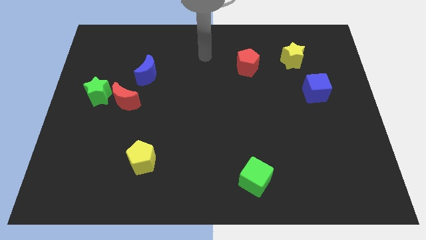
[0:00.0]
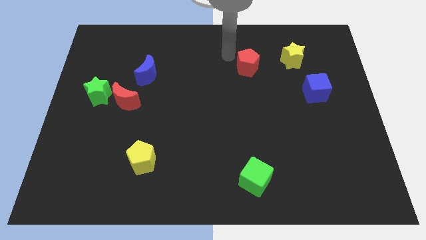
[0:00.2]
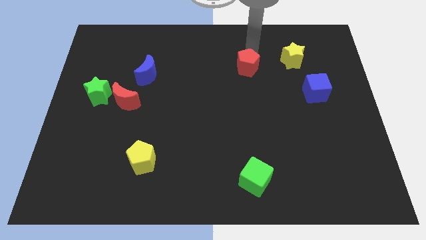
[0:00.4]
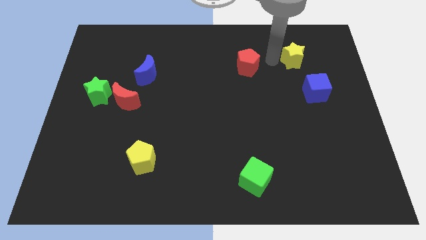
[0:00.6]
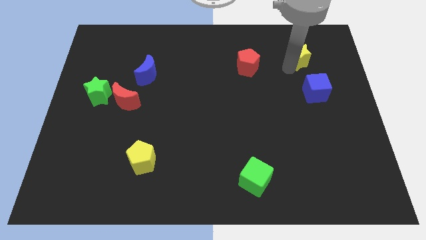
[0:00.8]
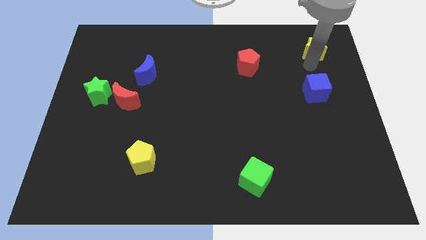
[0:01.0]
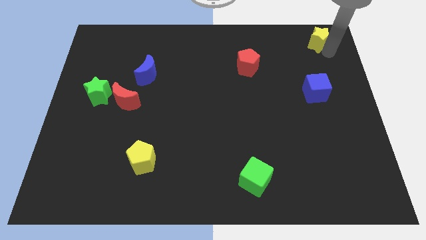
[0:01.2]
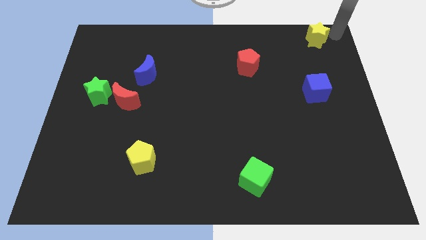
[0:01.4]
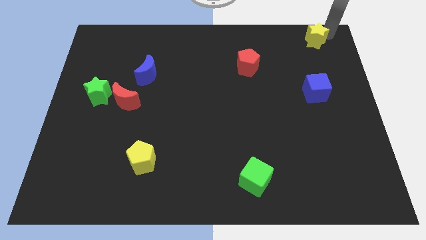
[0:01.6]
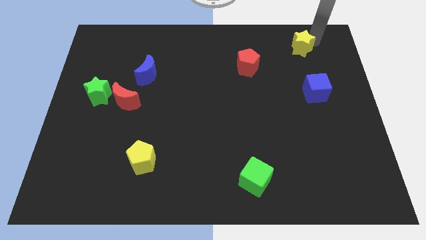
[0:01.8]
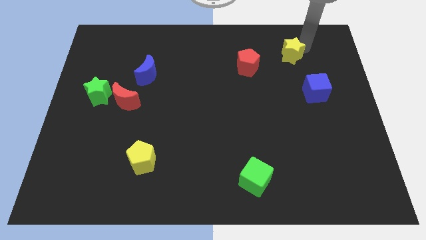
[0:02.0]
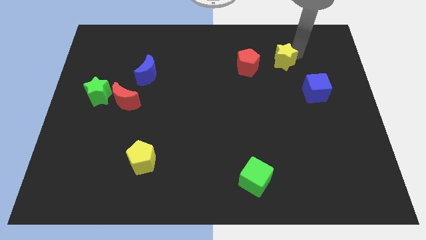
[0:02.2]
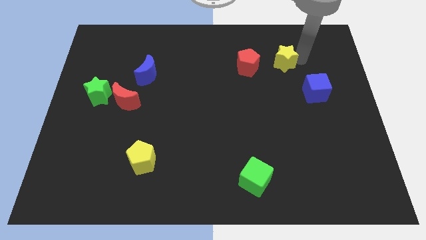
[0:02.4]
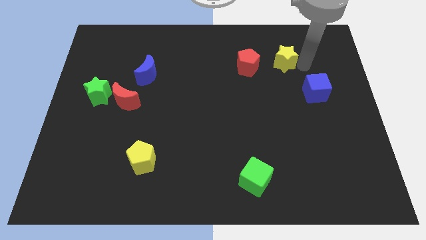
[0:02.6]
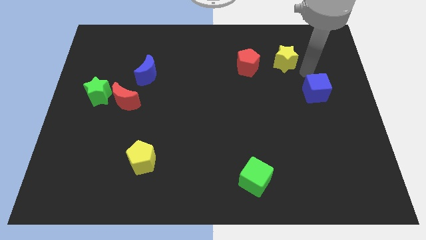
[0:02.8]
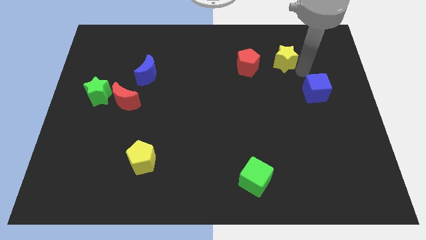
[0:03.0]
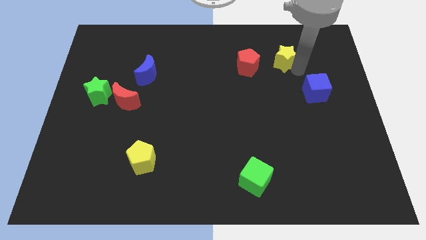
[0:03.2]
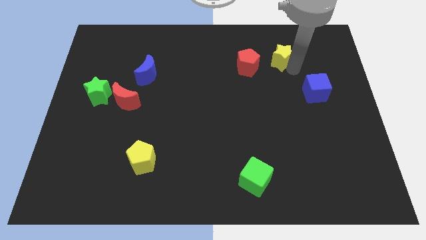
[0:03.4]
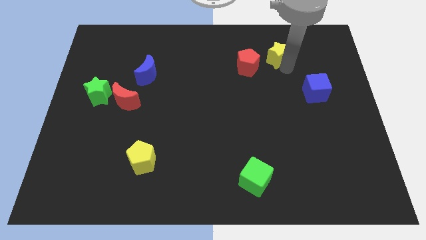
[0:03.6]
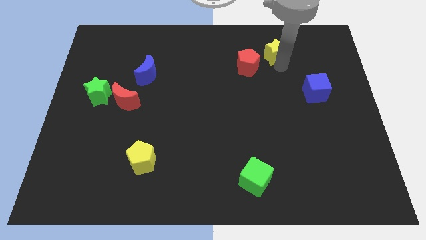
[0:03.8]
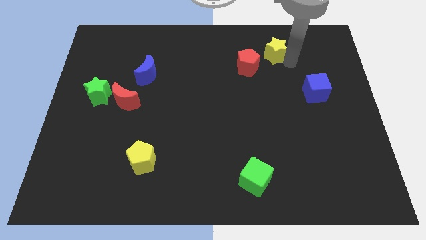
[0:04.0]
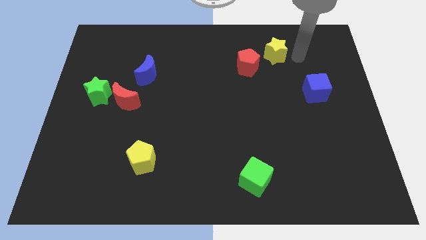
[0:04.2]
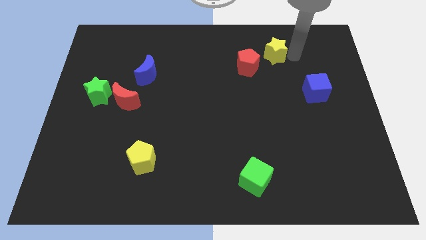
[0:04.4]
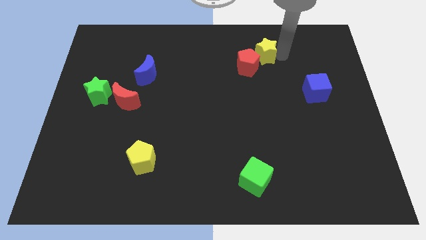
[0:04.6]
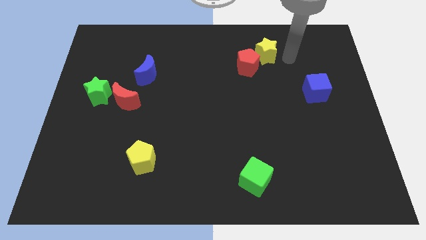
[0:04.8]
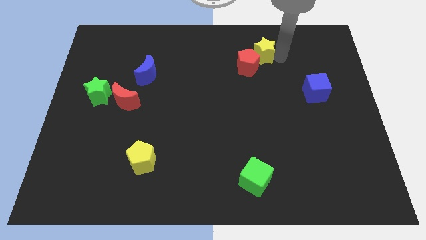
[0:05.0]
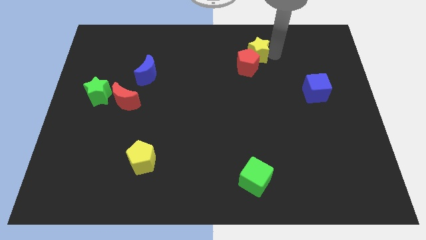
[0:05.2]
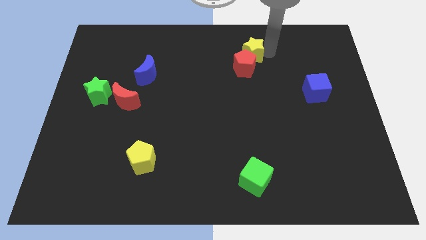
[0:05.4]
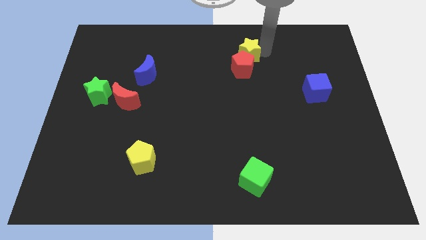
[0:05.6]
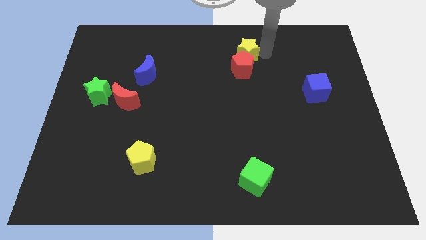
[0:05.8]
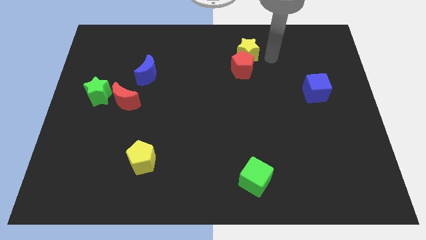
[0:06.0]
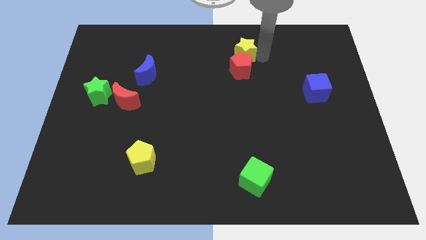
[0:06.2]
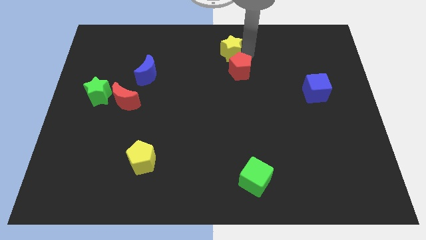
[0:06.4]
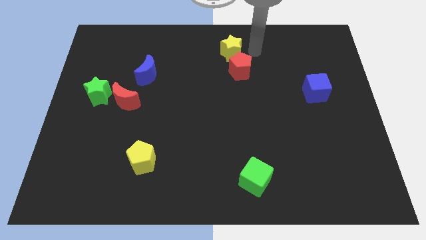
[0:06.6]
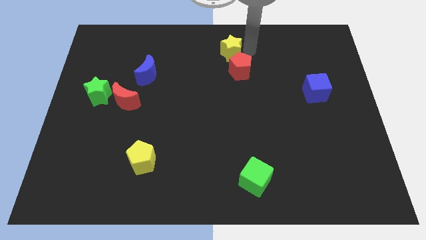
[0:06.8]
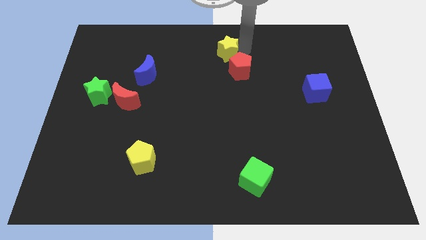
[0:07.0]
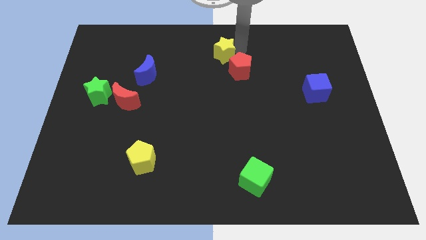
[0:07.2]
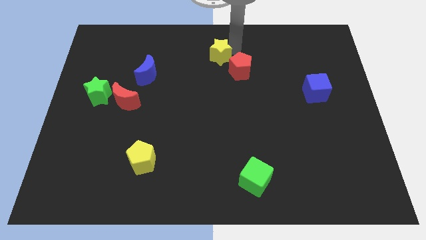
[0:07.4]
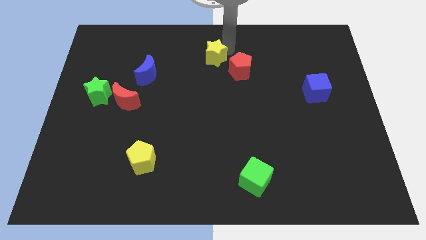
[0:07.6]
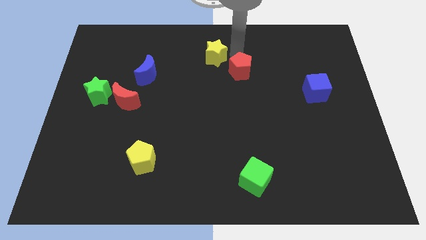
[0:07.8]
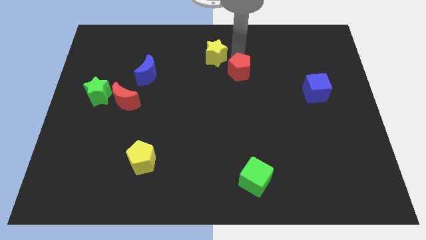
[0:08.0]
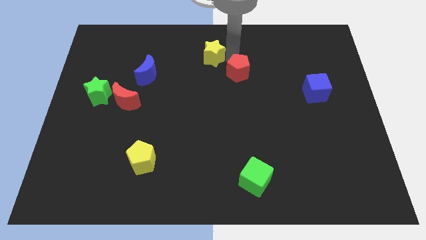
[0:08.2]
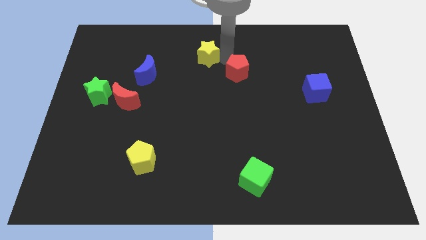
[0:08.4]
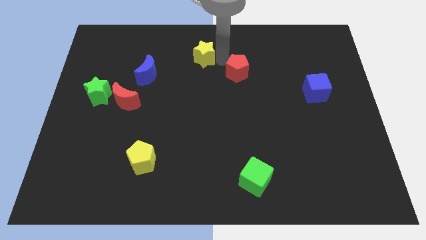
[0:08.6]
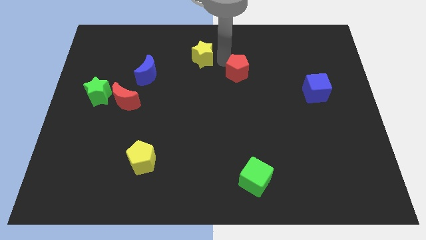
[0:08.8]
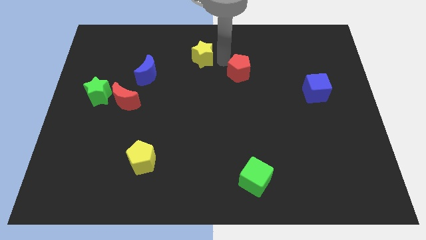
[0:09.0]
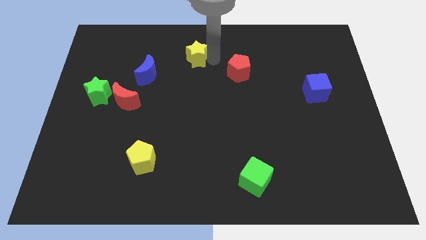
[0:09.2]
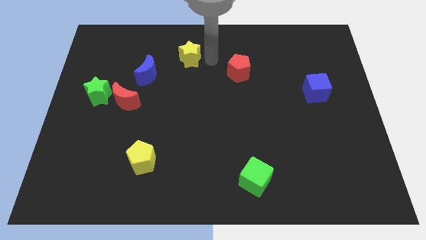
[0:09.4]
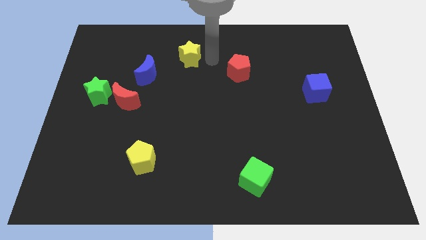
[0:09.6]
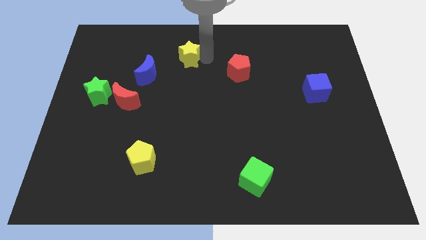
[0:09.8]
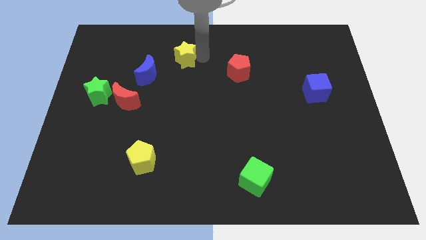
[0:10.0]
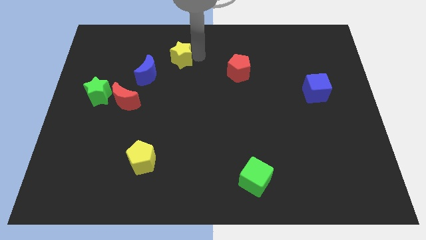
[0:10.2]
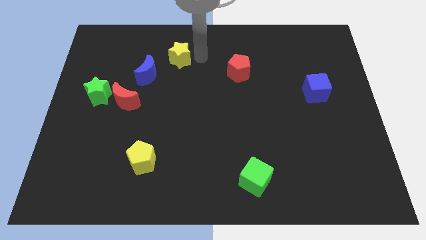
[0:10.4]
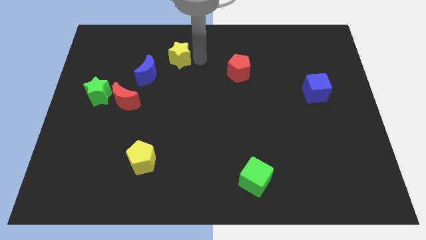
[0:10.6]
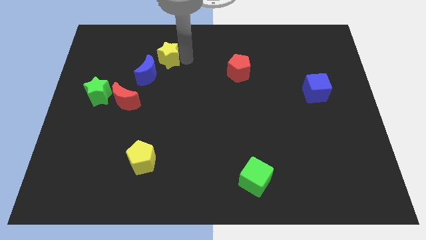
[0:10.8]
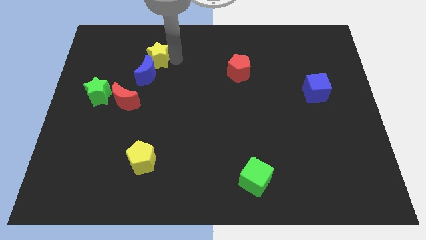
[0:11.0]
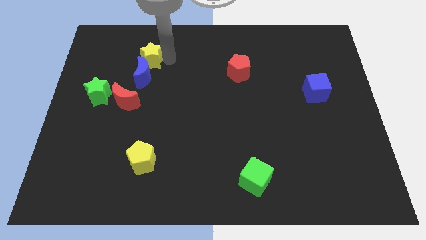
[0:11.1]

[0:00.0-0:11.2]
move the yellow star diagonally up and to the left of the blue moon

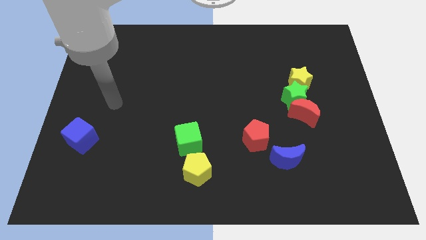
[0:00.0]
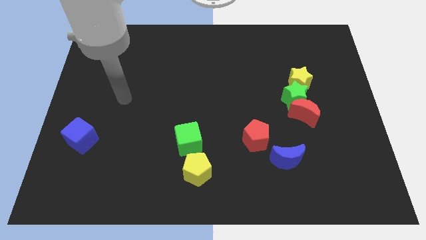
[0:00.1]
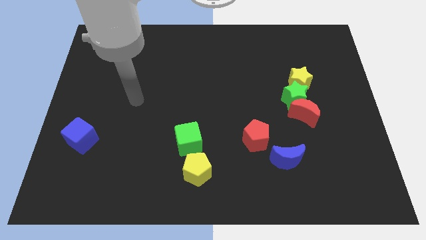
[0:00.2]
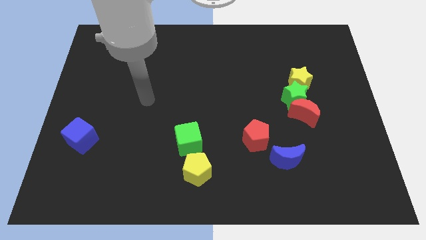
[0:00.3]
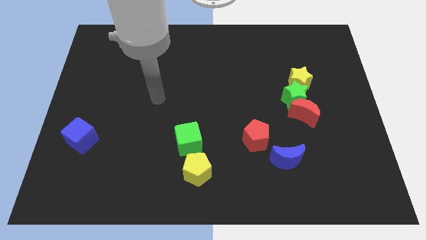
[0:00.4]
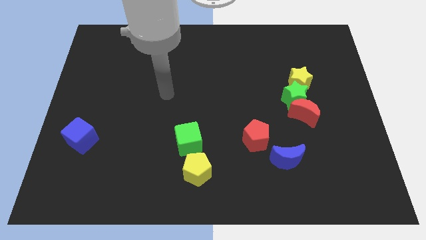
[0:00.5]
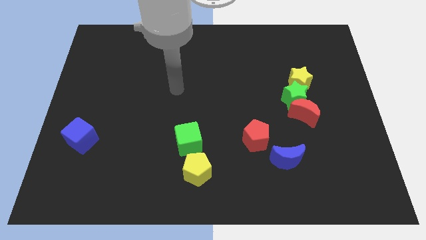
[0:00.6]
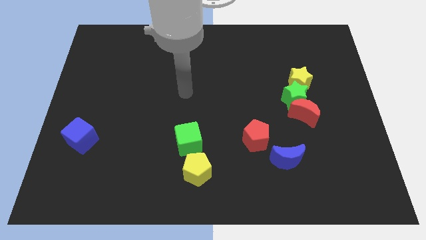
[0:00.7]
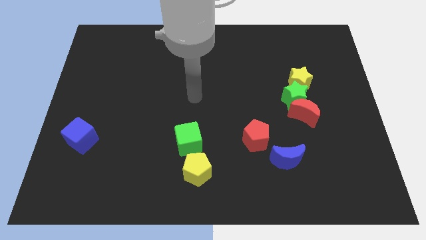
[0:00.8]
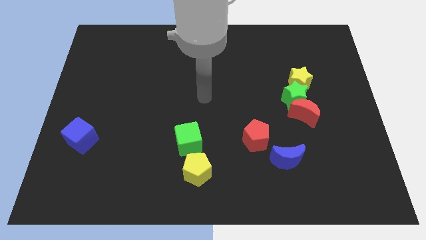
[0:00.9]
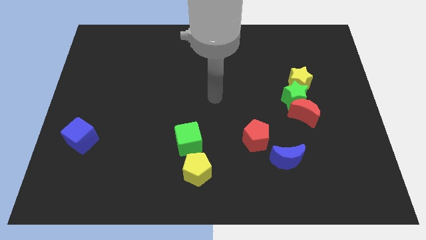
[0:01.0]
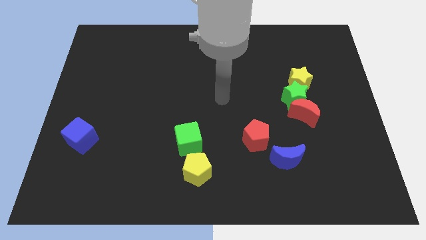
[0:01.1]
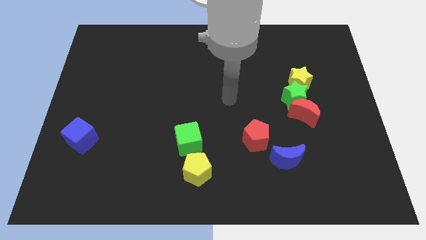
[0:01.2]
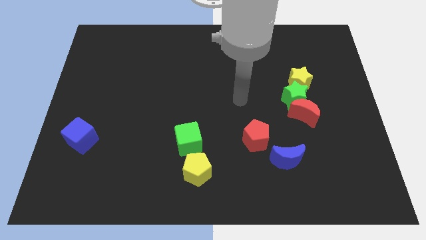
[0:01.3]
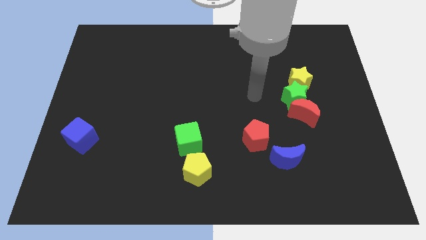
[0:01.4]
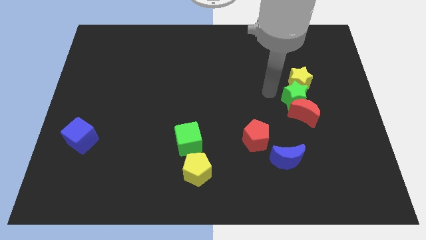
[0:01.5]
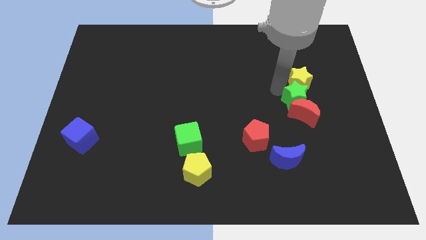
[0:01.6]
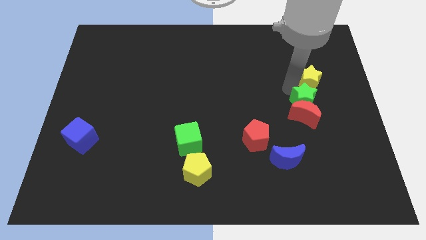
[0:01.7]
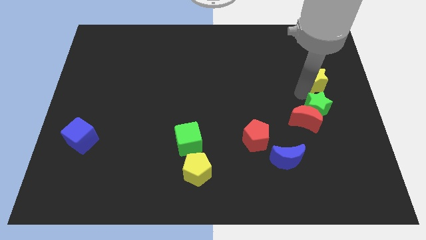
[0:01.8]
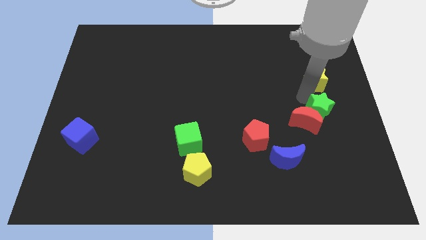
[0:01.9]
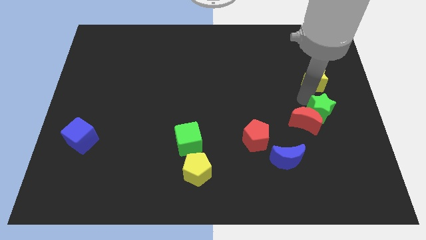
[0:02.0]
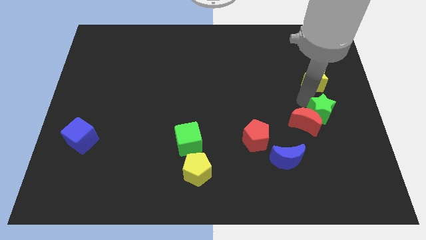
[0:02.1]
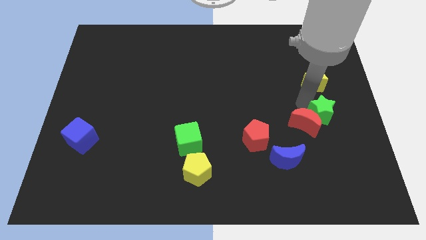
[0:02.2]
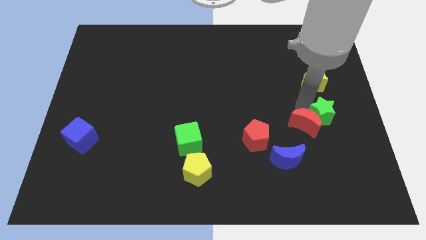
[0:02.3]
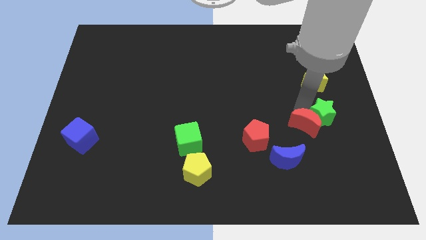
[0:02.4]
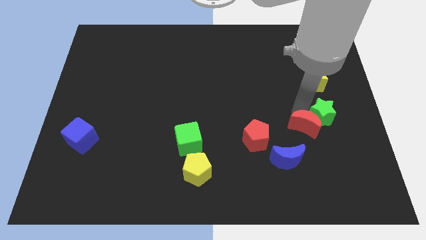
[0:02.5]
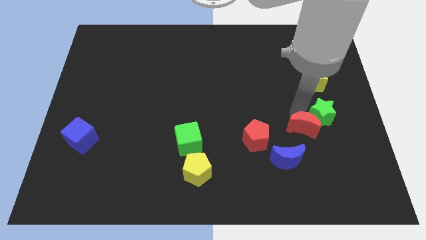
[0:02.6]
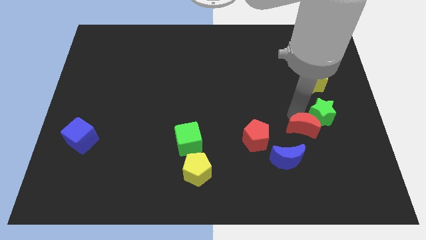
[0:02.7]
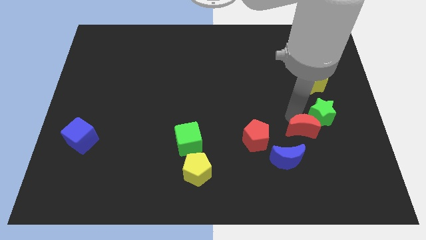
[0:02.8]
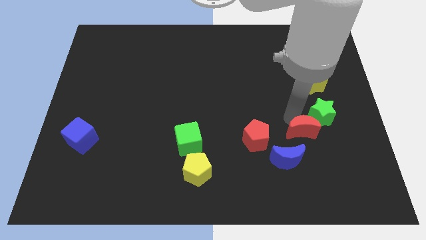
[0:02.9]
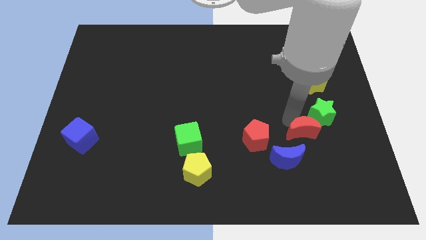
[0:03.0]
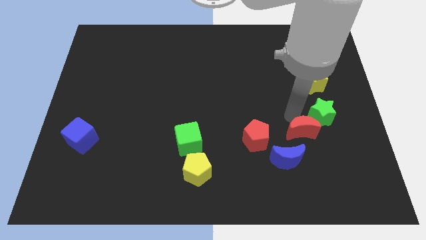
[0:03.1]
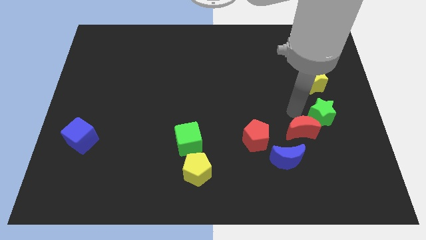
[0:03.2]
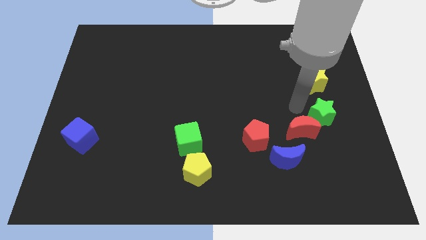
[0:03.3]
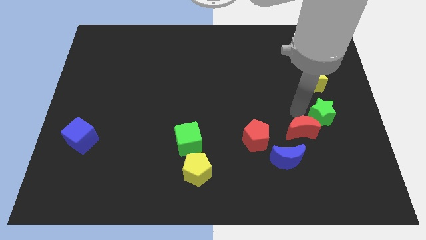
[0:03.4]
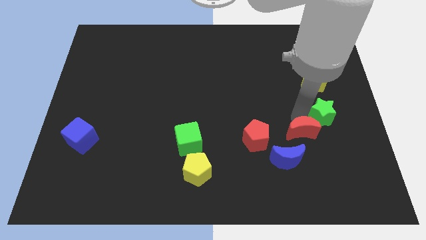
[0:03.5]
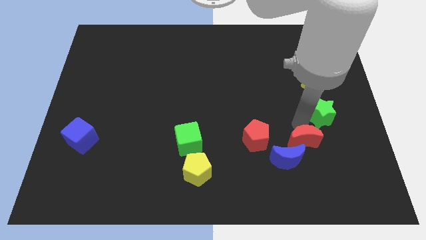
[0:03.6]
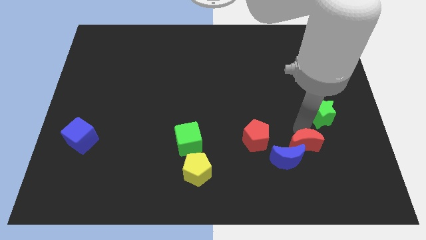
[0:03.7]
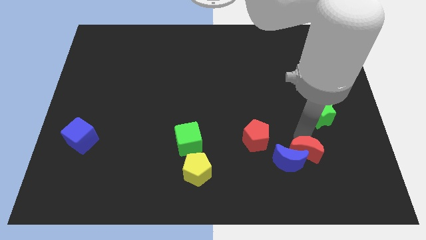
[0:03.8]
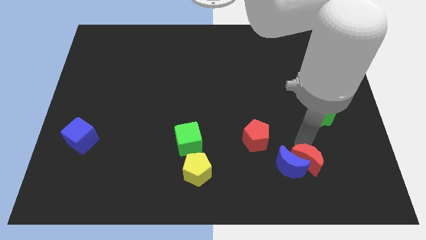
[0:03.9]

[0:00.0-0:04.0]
push the red moon to the bottom right side of the blue moon
